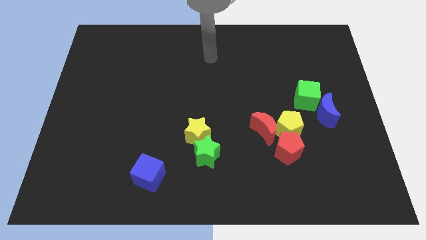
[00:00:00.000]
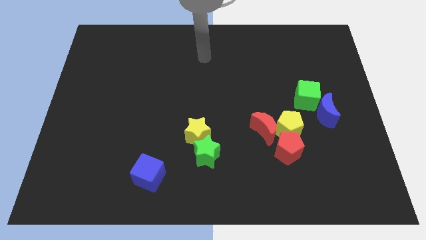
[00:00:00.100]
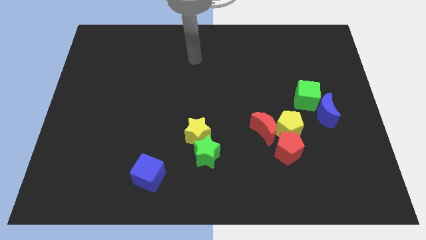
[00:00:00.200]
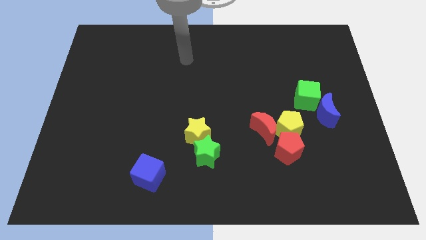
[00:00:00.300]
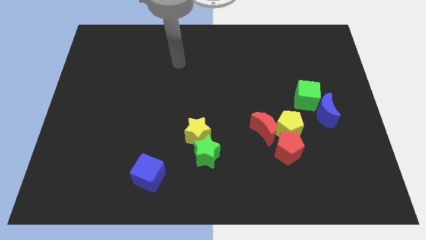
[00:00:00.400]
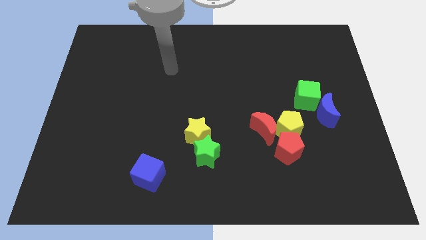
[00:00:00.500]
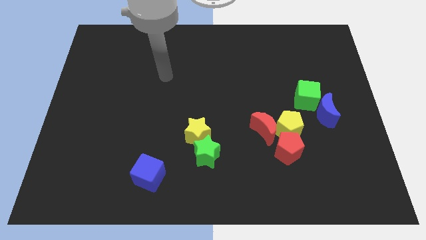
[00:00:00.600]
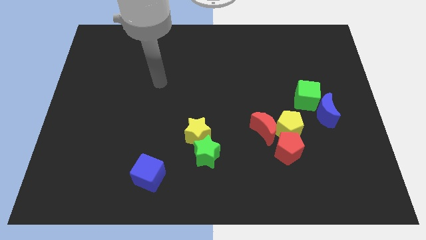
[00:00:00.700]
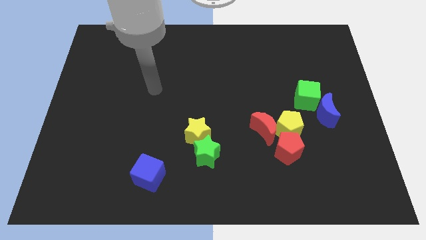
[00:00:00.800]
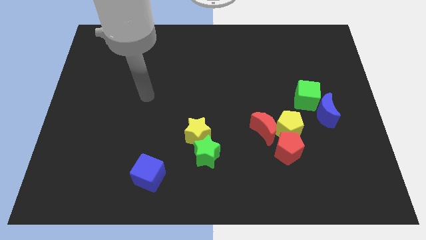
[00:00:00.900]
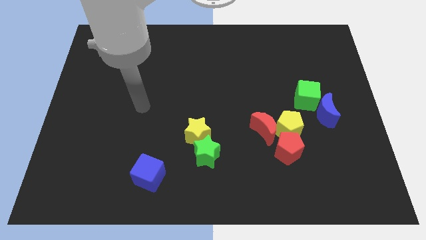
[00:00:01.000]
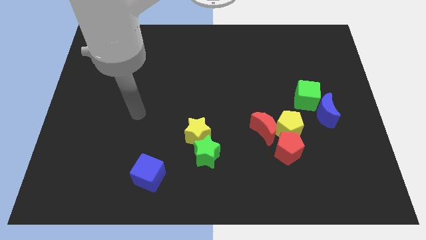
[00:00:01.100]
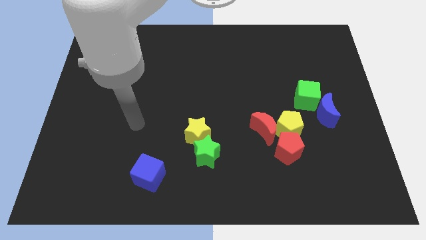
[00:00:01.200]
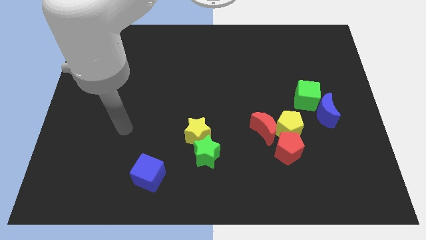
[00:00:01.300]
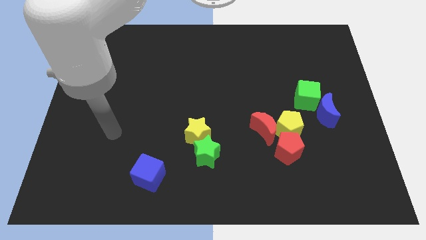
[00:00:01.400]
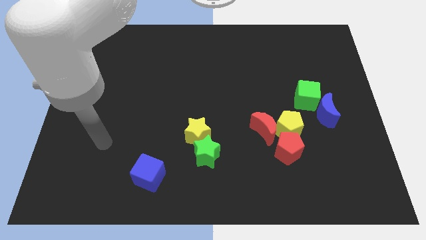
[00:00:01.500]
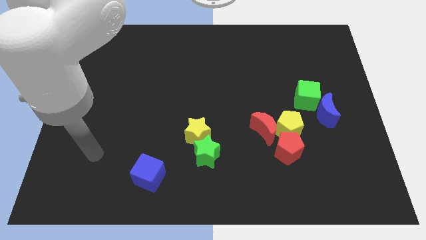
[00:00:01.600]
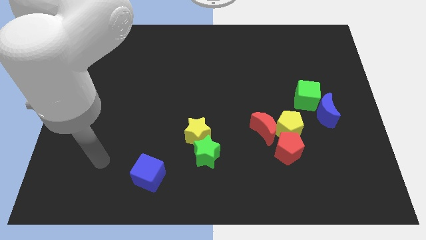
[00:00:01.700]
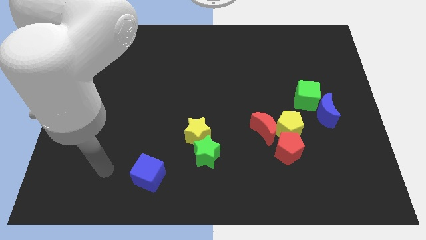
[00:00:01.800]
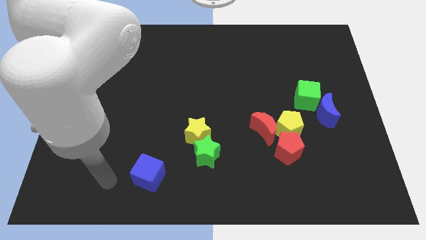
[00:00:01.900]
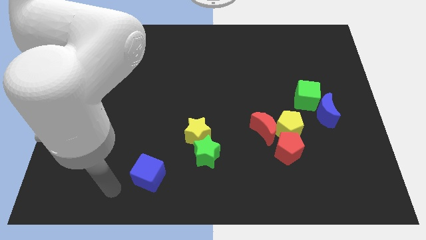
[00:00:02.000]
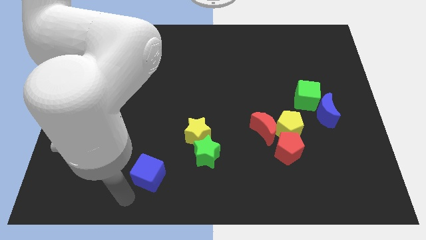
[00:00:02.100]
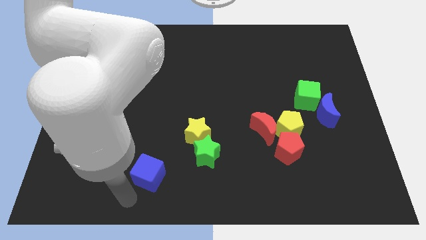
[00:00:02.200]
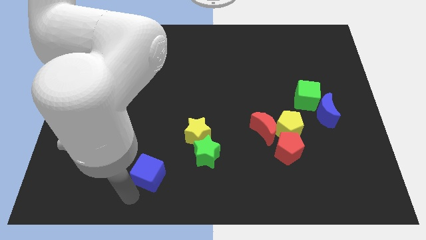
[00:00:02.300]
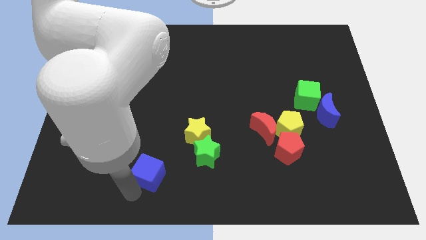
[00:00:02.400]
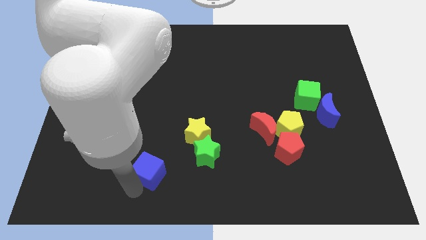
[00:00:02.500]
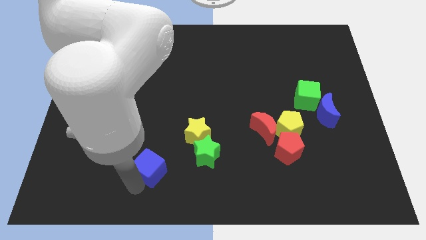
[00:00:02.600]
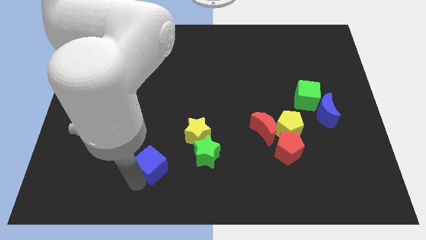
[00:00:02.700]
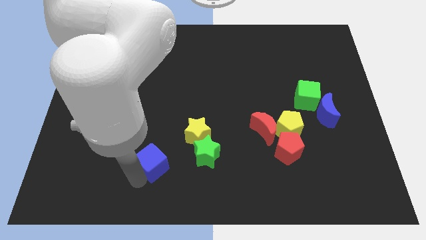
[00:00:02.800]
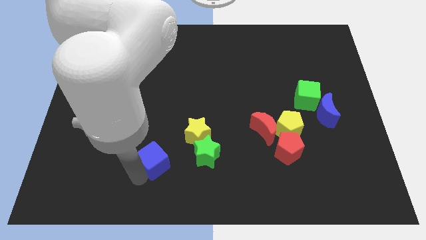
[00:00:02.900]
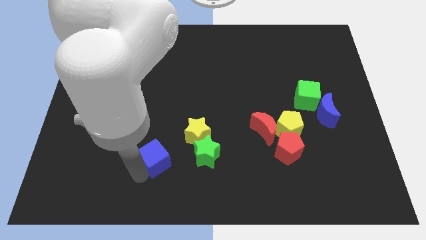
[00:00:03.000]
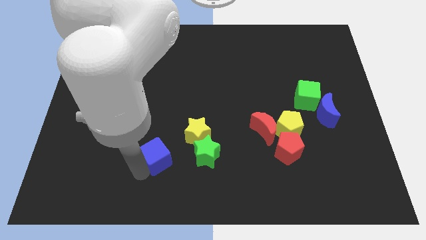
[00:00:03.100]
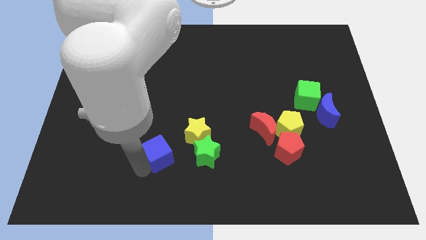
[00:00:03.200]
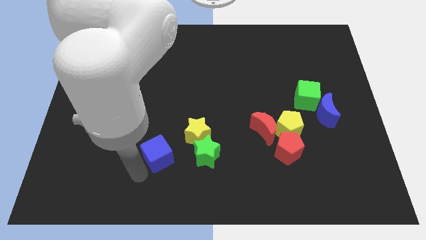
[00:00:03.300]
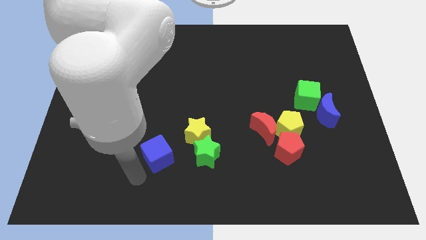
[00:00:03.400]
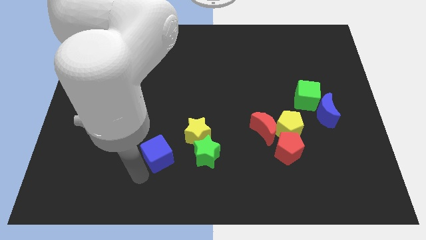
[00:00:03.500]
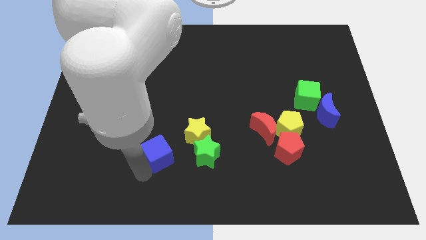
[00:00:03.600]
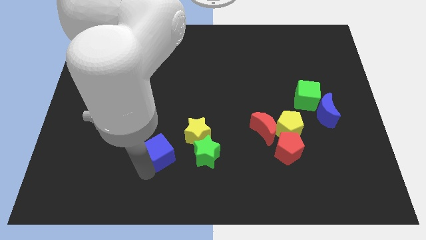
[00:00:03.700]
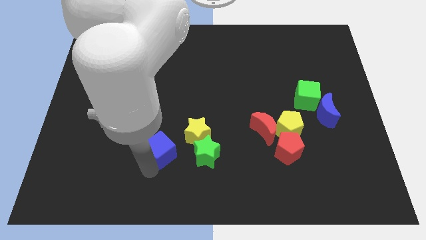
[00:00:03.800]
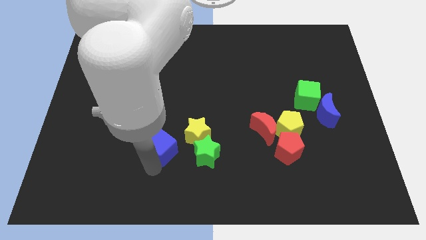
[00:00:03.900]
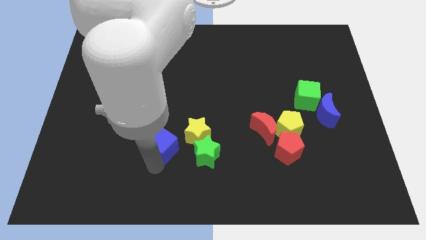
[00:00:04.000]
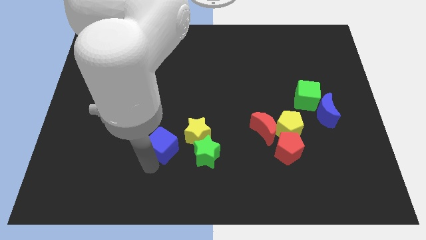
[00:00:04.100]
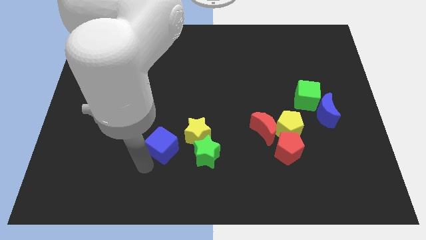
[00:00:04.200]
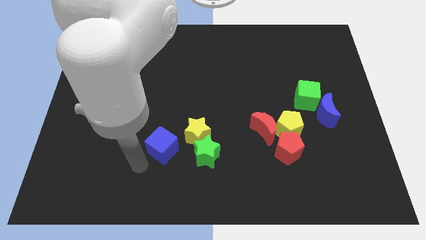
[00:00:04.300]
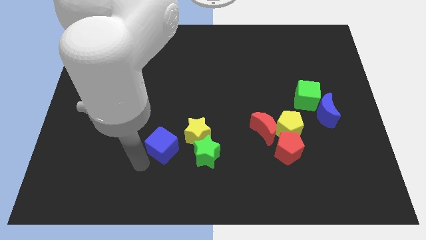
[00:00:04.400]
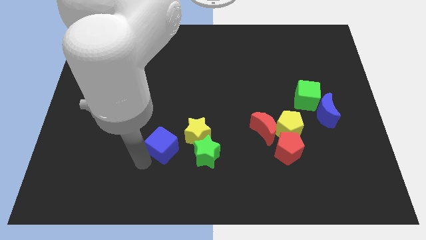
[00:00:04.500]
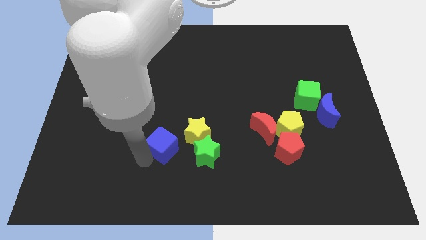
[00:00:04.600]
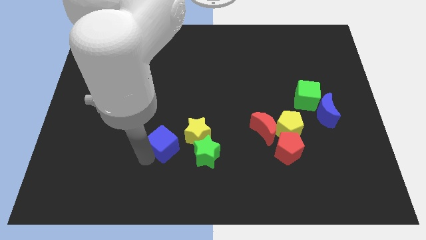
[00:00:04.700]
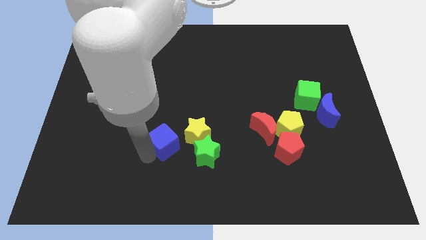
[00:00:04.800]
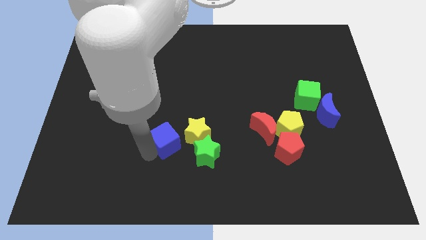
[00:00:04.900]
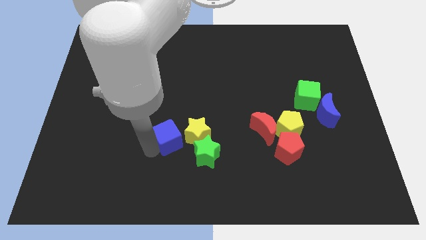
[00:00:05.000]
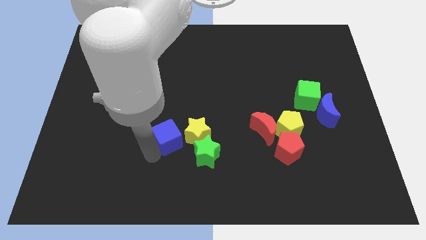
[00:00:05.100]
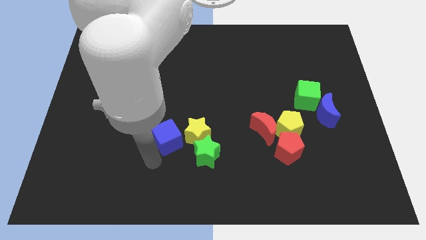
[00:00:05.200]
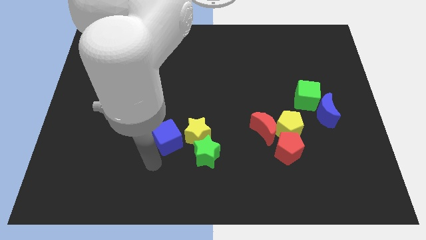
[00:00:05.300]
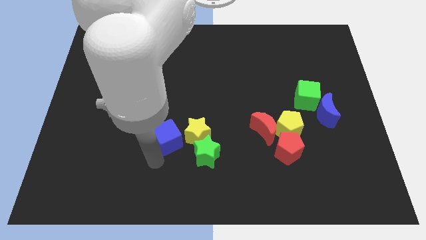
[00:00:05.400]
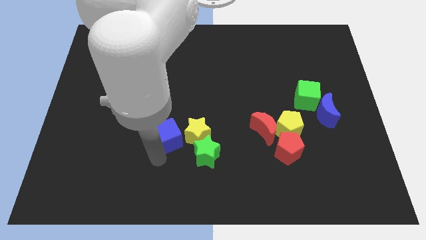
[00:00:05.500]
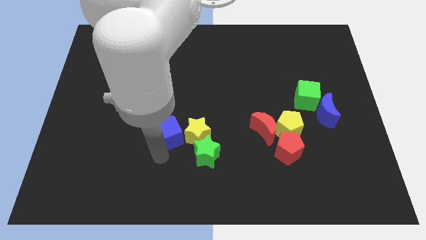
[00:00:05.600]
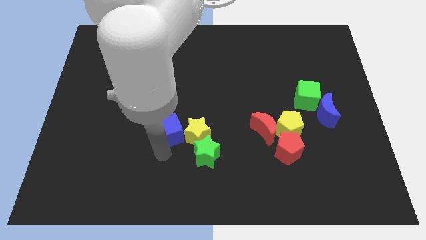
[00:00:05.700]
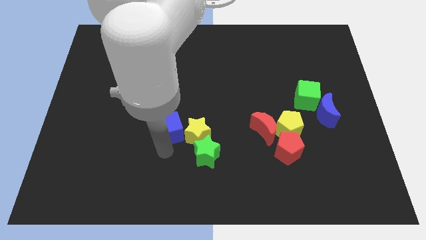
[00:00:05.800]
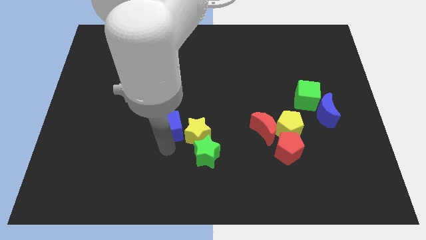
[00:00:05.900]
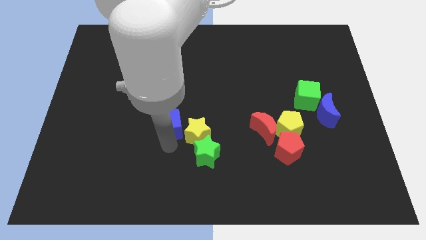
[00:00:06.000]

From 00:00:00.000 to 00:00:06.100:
put the blue cube to the center of the board
